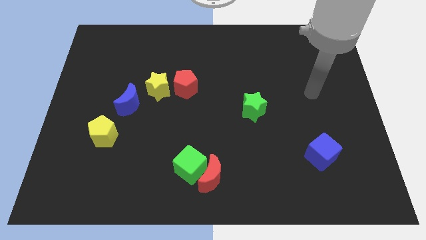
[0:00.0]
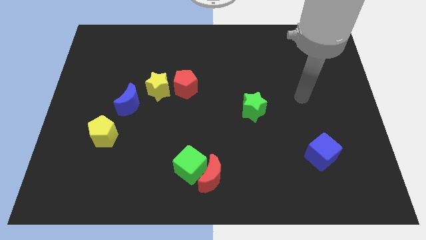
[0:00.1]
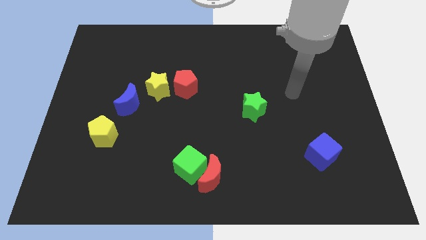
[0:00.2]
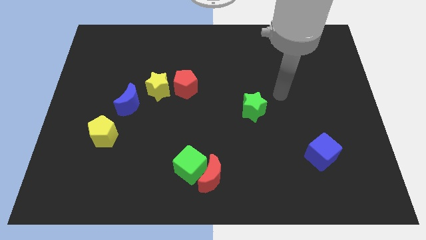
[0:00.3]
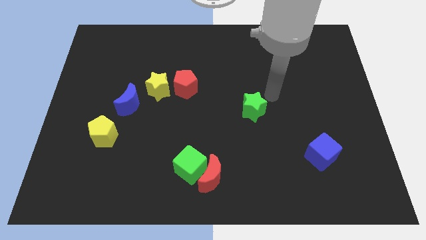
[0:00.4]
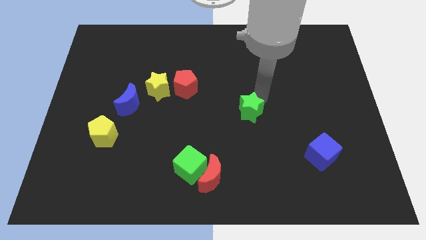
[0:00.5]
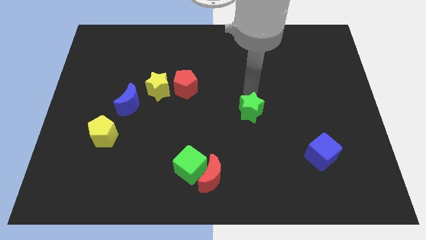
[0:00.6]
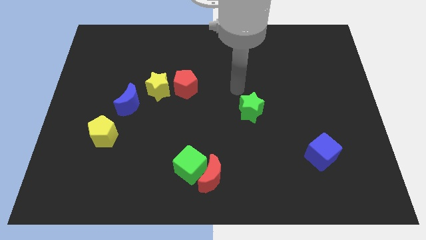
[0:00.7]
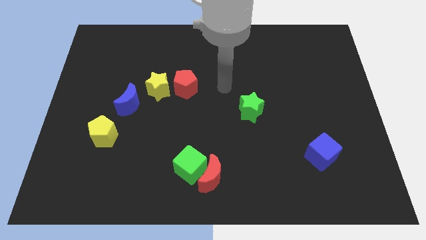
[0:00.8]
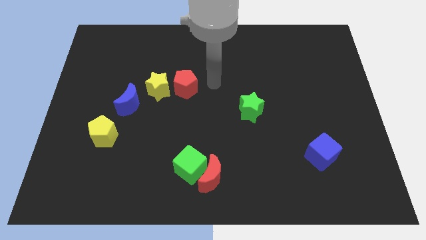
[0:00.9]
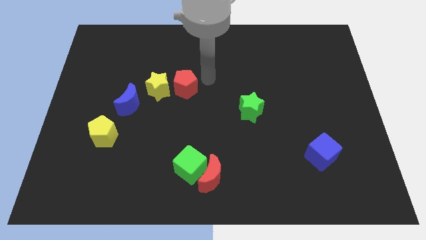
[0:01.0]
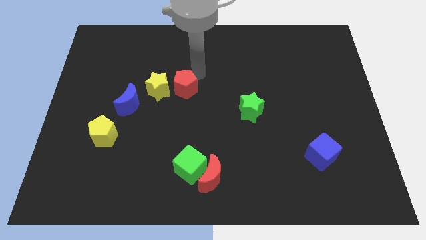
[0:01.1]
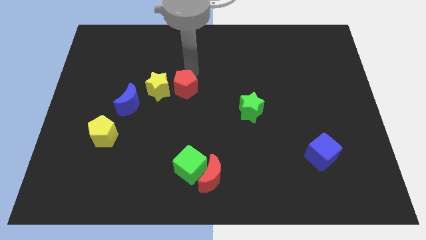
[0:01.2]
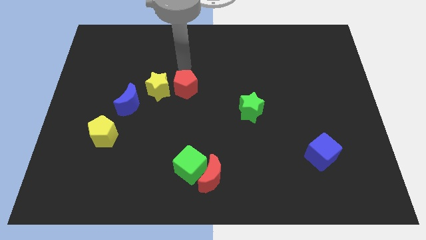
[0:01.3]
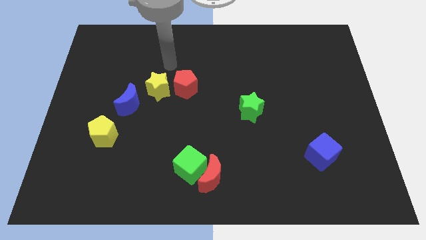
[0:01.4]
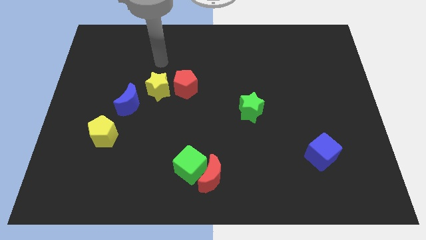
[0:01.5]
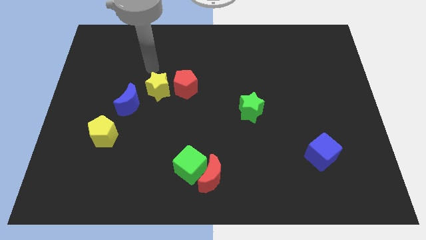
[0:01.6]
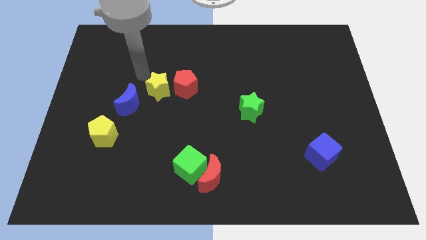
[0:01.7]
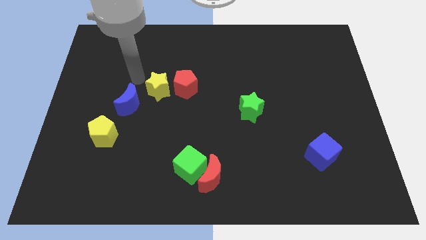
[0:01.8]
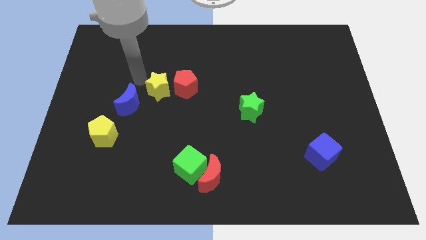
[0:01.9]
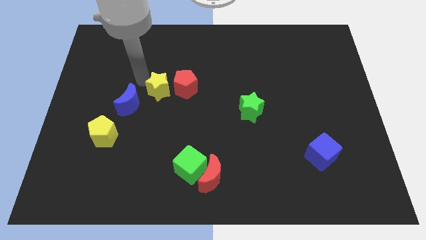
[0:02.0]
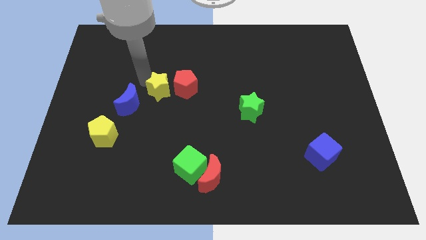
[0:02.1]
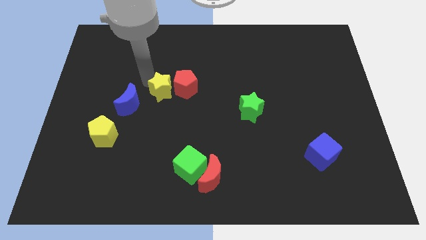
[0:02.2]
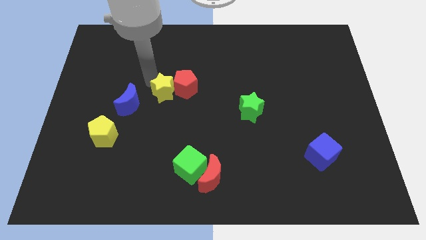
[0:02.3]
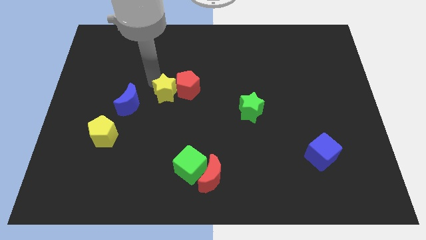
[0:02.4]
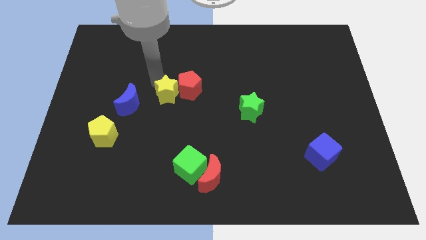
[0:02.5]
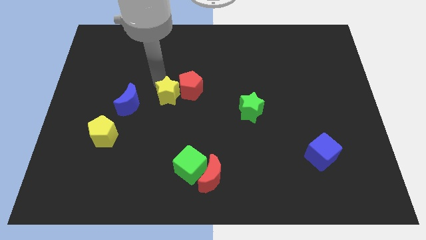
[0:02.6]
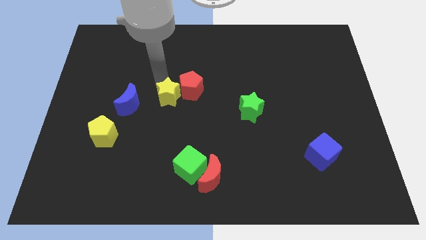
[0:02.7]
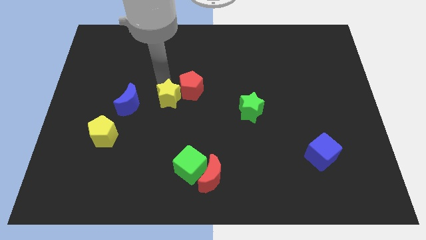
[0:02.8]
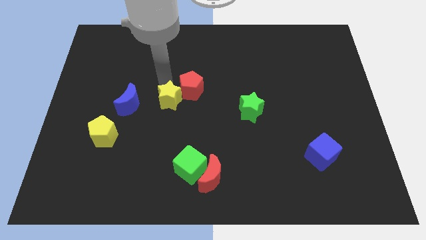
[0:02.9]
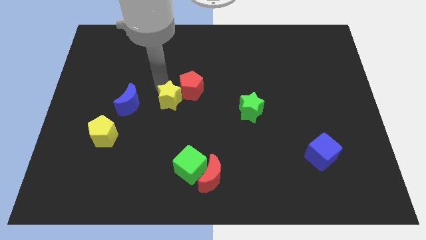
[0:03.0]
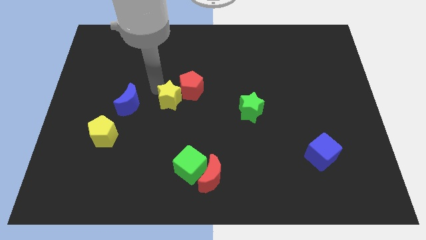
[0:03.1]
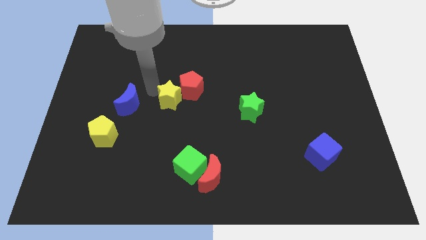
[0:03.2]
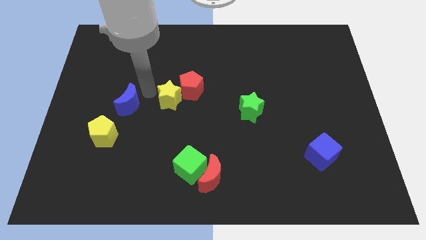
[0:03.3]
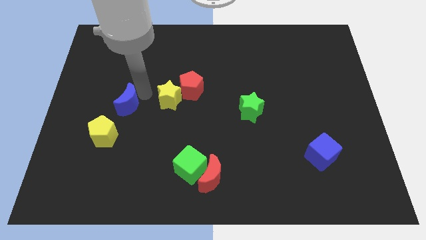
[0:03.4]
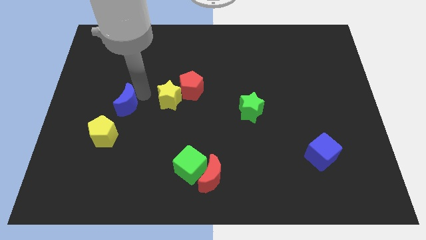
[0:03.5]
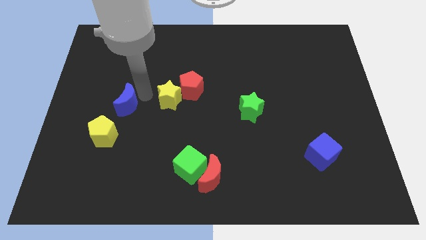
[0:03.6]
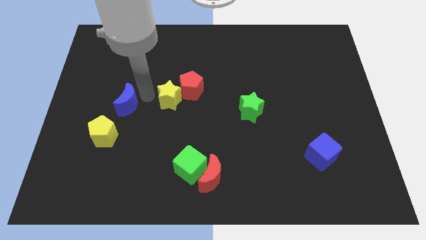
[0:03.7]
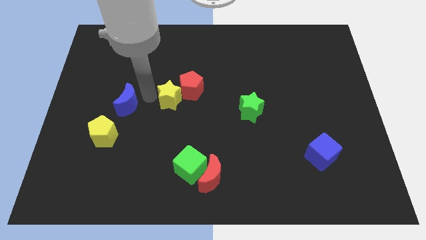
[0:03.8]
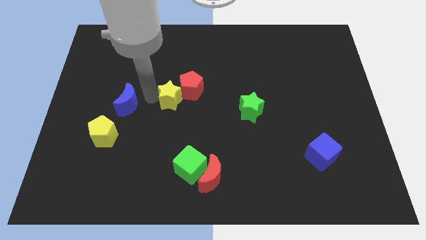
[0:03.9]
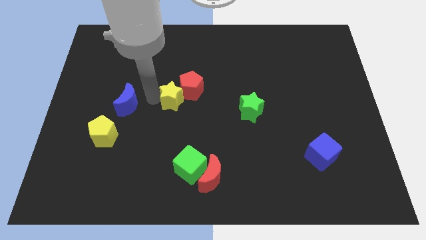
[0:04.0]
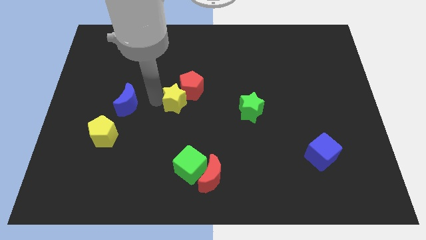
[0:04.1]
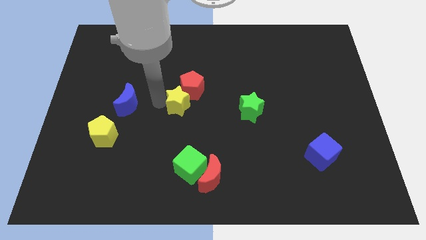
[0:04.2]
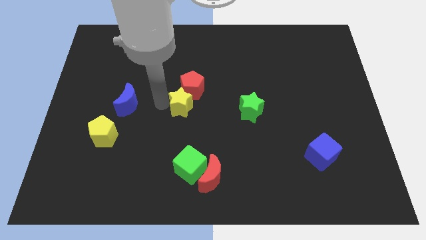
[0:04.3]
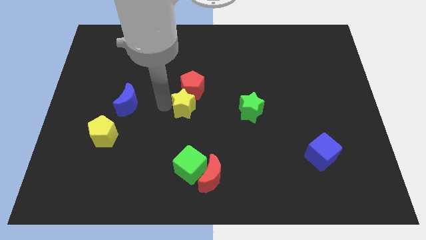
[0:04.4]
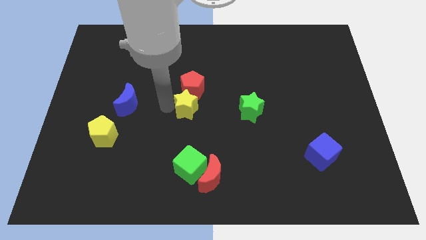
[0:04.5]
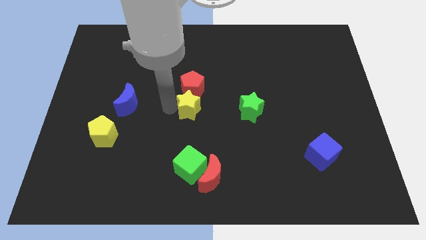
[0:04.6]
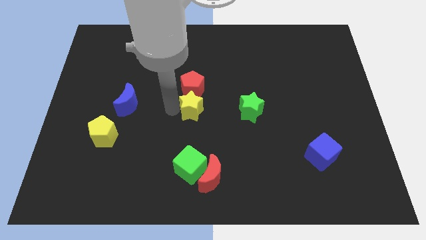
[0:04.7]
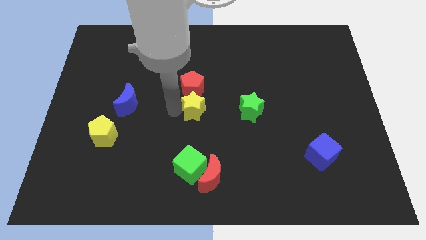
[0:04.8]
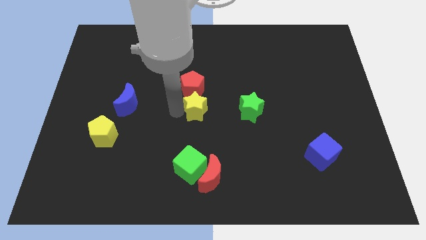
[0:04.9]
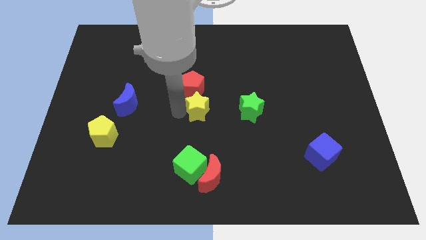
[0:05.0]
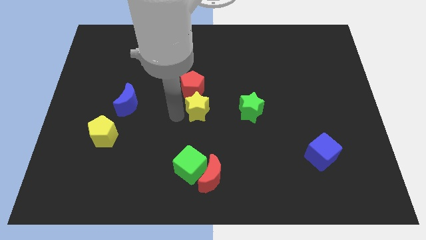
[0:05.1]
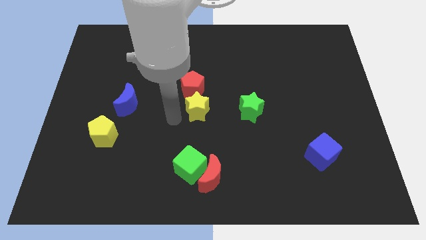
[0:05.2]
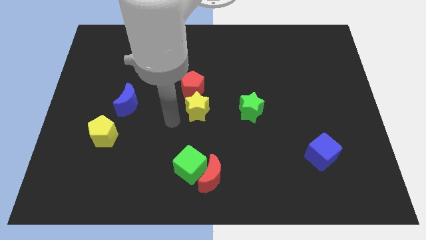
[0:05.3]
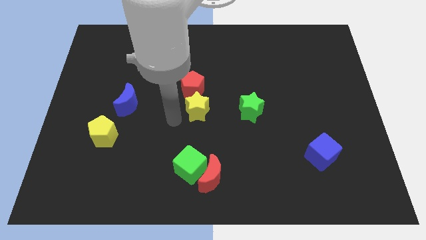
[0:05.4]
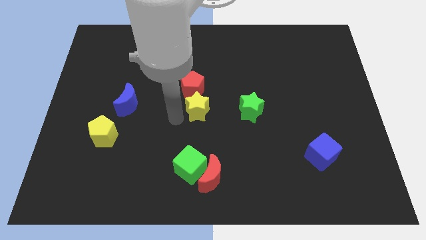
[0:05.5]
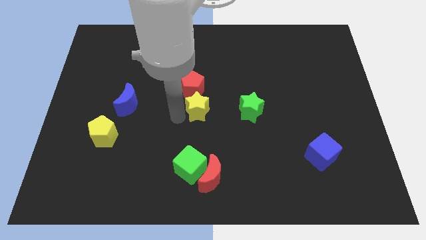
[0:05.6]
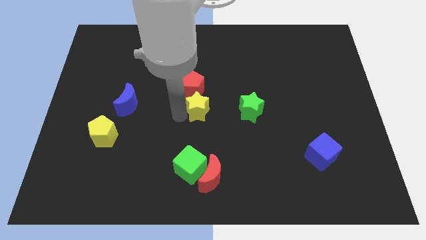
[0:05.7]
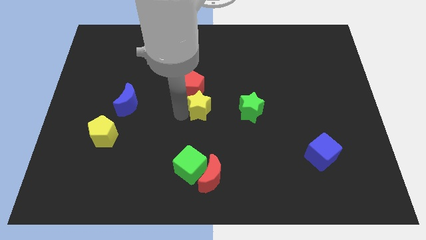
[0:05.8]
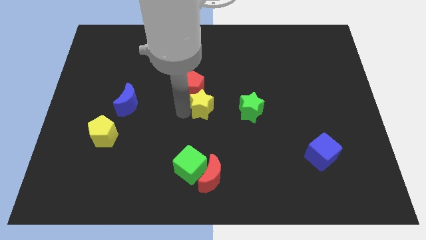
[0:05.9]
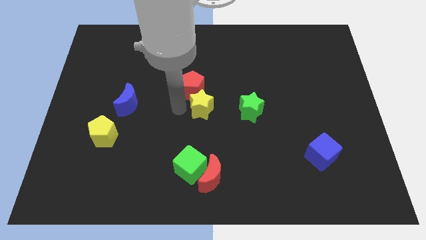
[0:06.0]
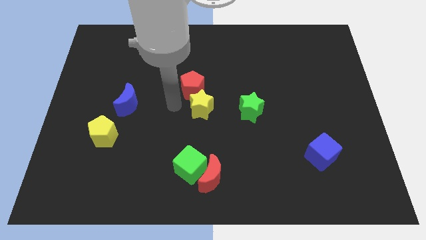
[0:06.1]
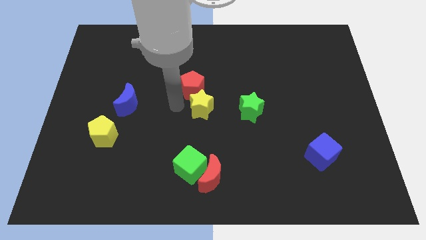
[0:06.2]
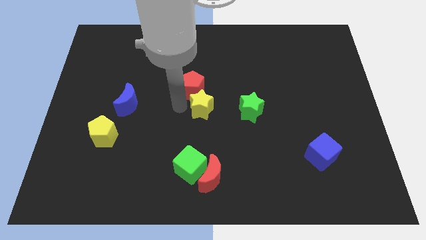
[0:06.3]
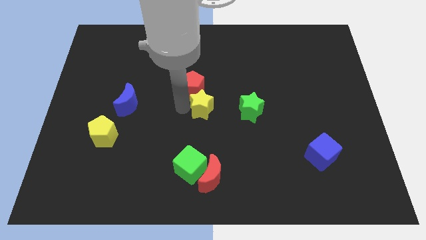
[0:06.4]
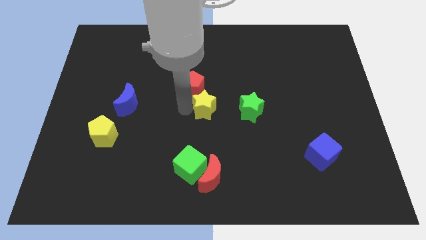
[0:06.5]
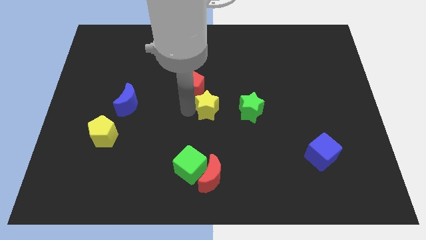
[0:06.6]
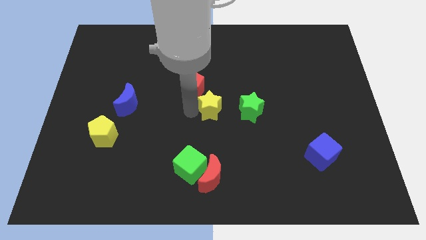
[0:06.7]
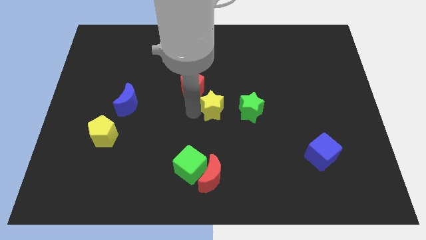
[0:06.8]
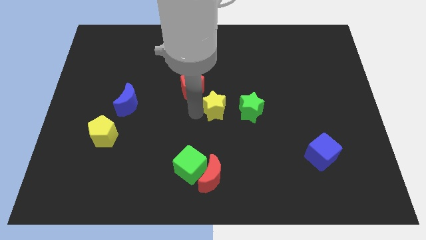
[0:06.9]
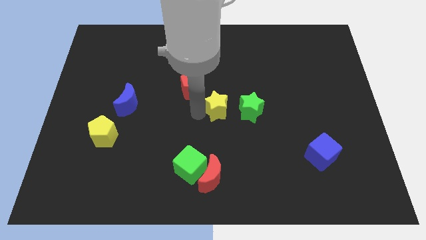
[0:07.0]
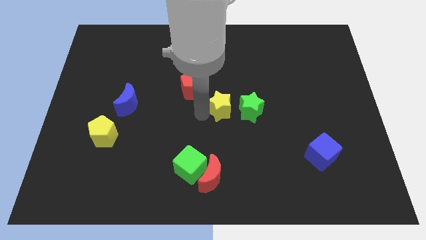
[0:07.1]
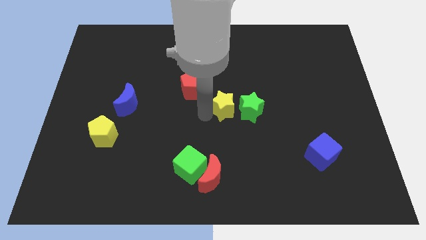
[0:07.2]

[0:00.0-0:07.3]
push the yellow star to the green star
